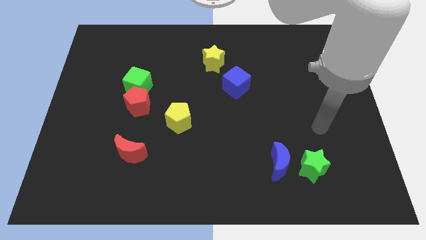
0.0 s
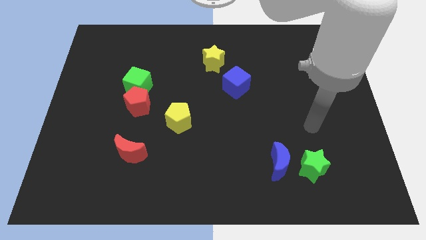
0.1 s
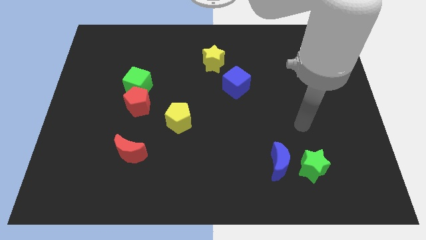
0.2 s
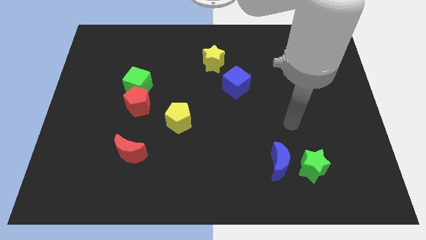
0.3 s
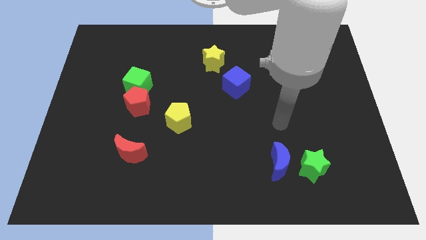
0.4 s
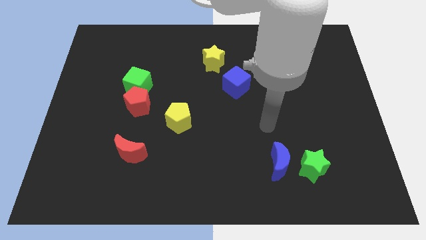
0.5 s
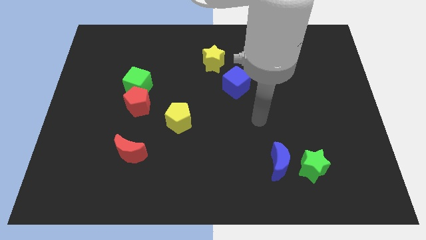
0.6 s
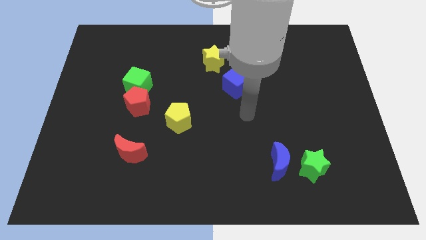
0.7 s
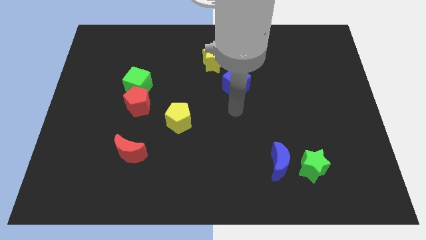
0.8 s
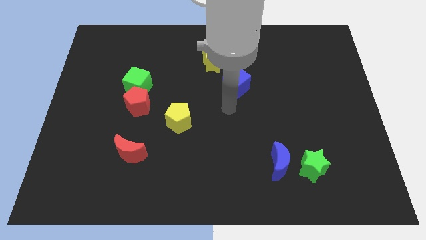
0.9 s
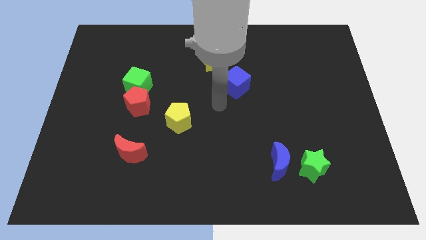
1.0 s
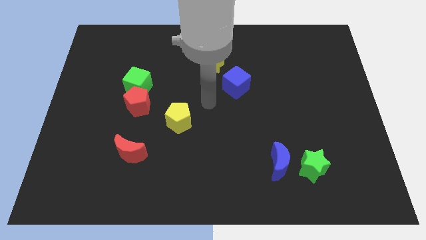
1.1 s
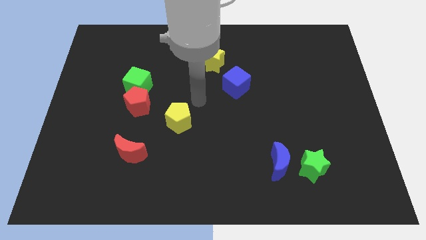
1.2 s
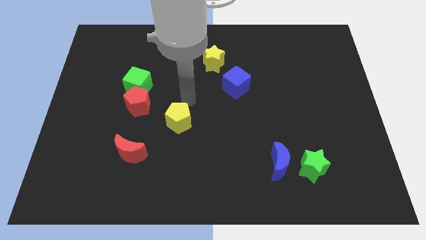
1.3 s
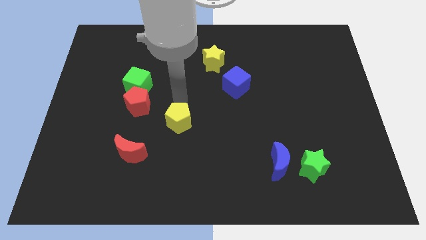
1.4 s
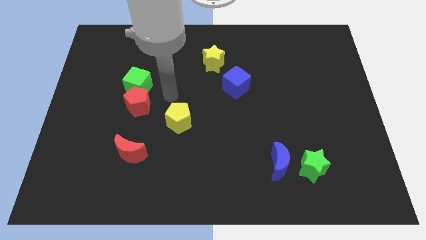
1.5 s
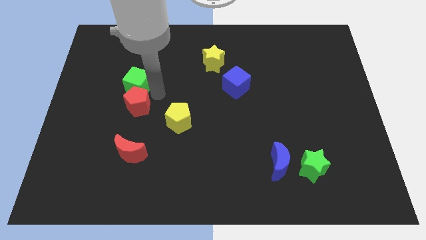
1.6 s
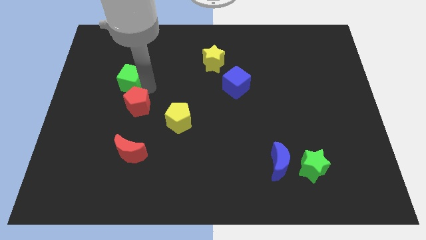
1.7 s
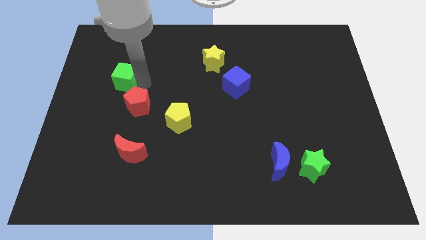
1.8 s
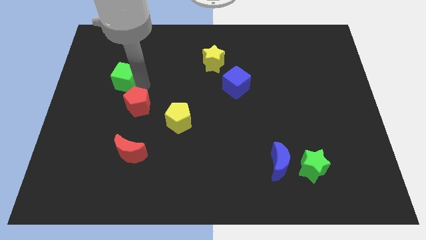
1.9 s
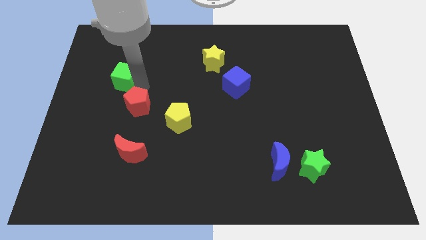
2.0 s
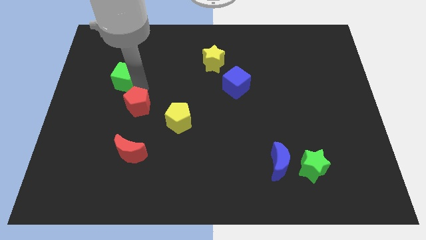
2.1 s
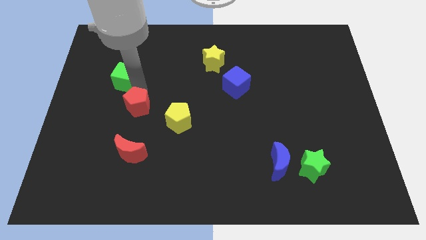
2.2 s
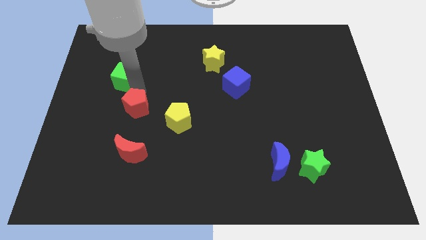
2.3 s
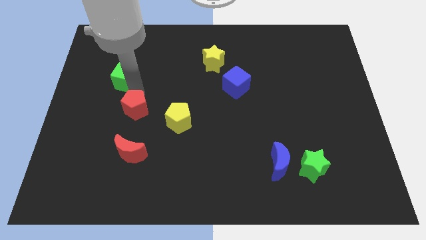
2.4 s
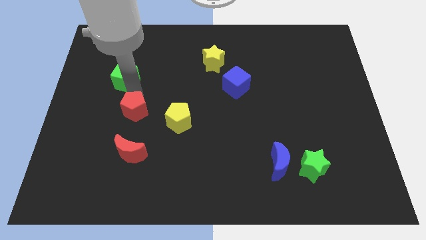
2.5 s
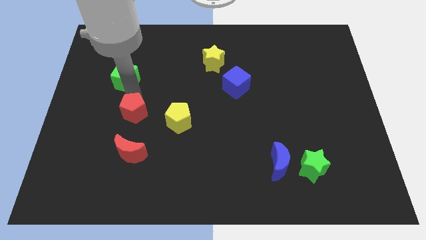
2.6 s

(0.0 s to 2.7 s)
move the red pentagon away from the green cube

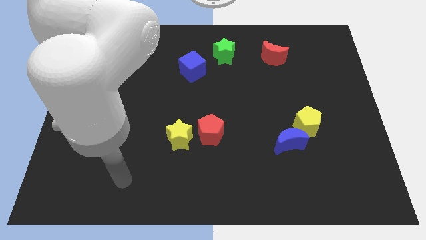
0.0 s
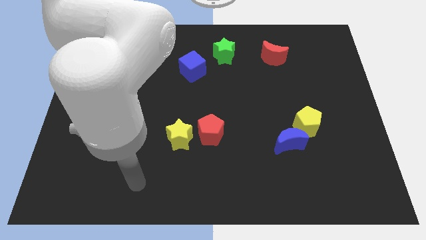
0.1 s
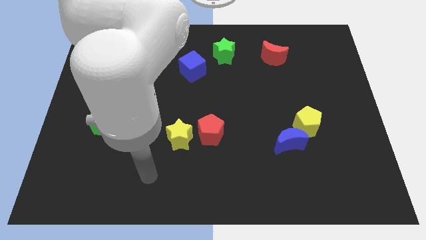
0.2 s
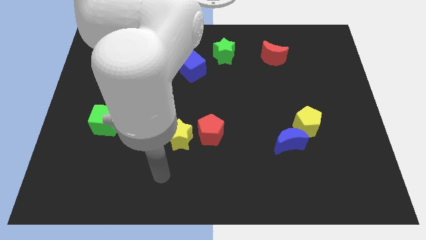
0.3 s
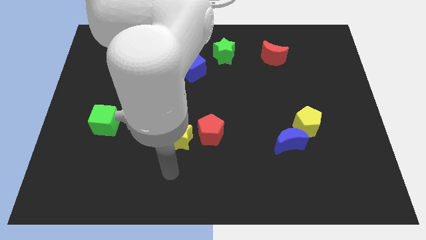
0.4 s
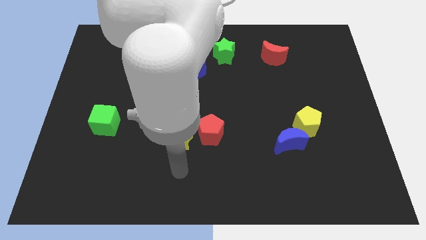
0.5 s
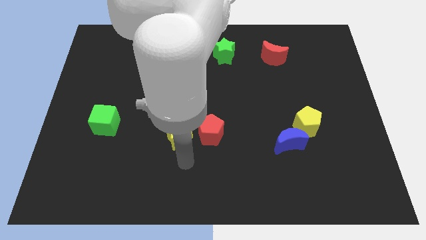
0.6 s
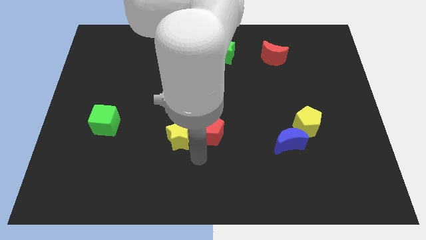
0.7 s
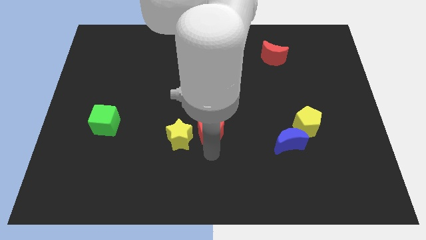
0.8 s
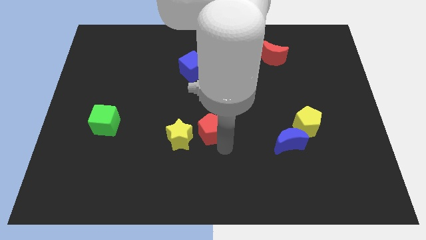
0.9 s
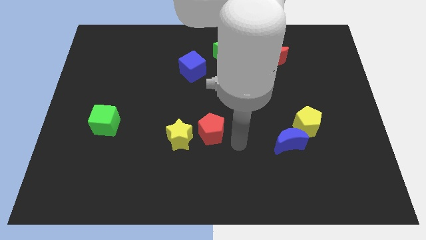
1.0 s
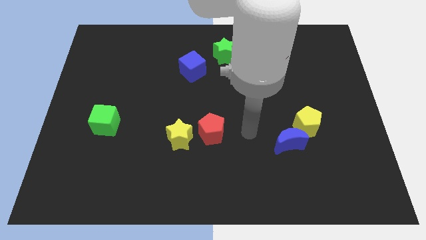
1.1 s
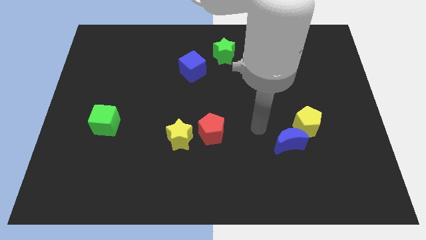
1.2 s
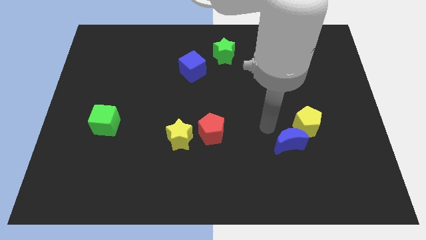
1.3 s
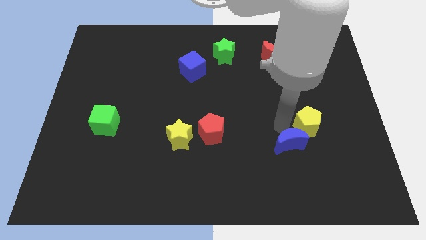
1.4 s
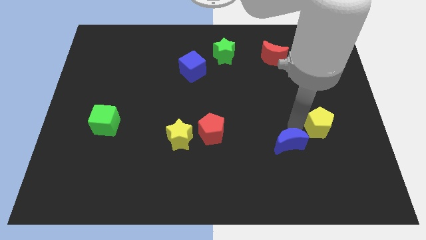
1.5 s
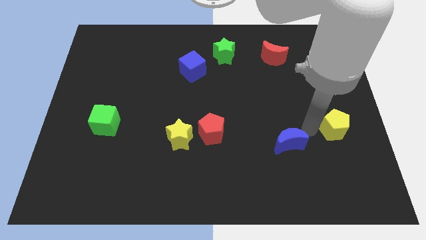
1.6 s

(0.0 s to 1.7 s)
separate the blue moon from the yellow pentagon

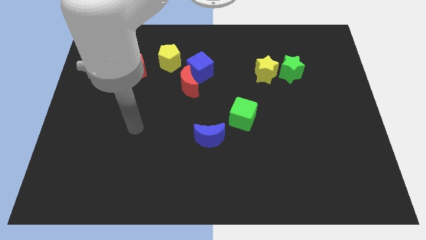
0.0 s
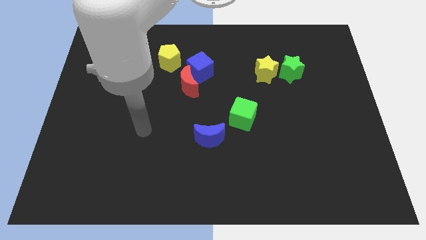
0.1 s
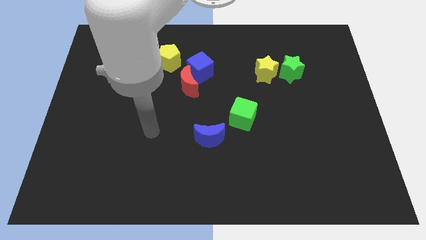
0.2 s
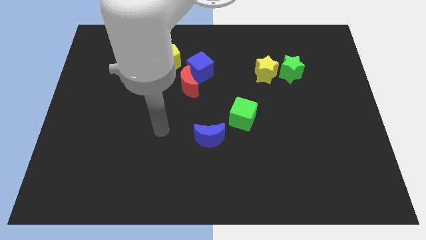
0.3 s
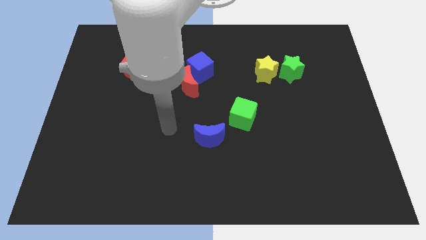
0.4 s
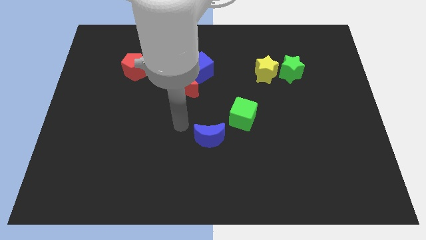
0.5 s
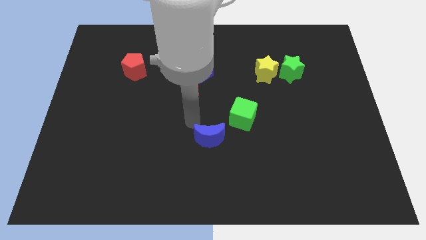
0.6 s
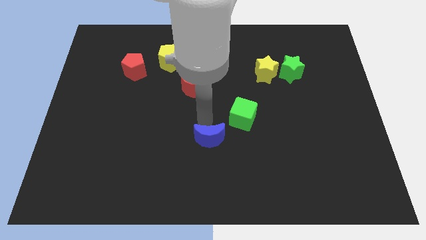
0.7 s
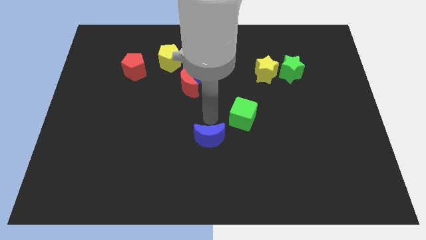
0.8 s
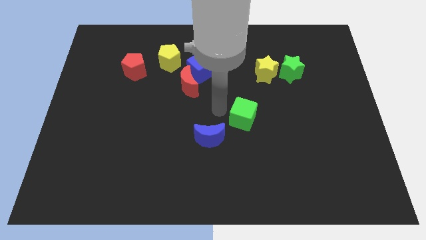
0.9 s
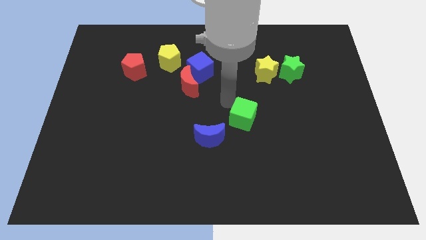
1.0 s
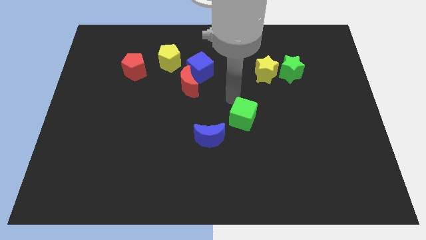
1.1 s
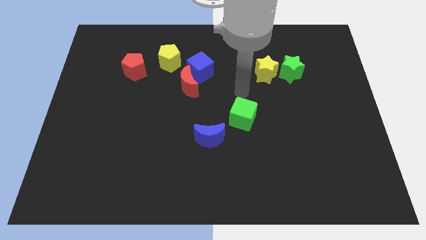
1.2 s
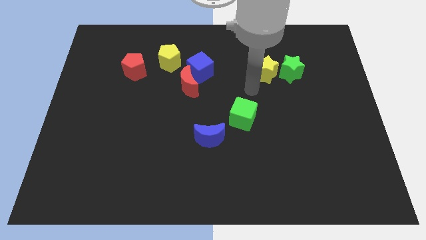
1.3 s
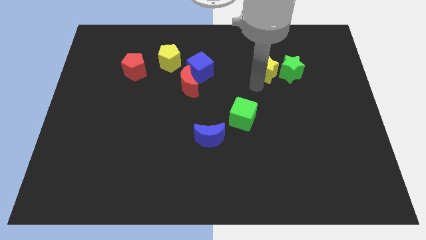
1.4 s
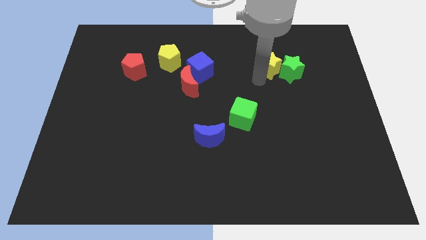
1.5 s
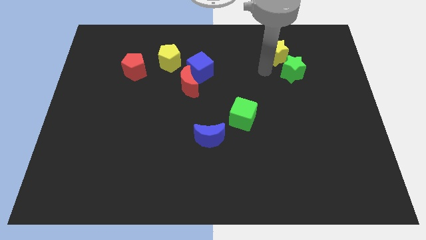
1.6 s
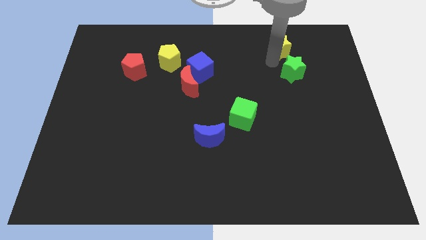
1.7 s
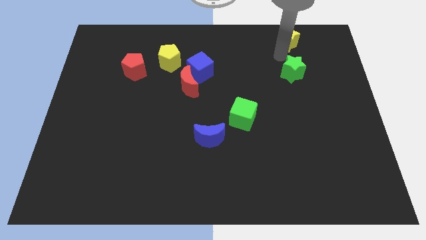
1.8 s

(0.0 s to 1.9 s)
separate the green star from the yellow star

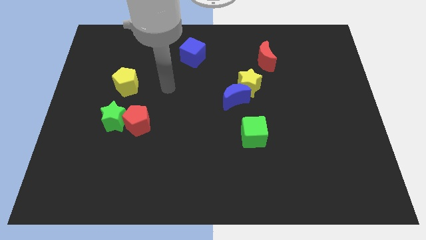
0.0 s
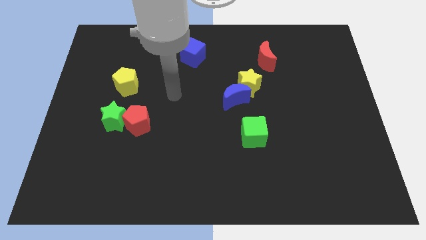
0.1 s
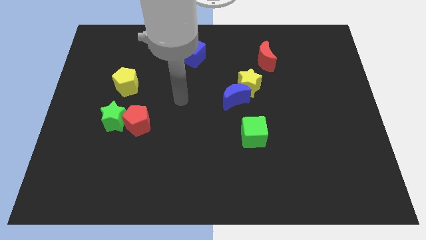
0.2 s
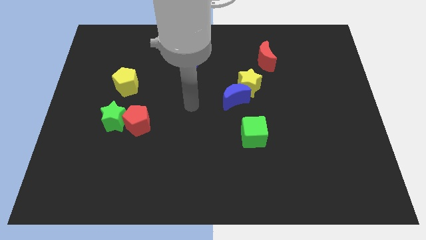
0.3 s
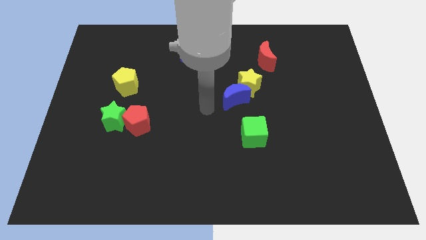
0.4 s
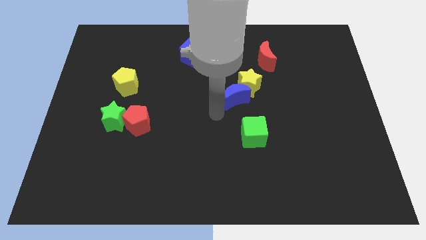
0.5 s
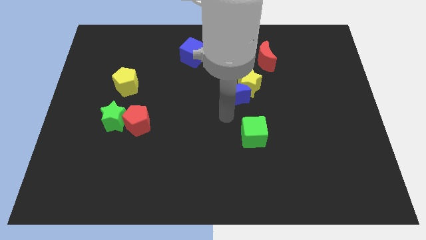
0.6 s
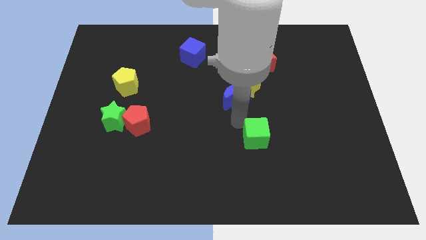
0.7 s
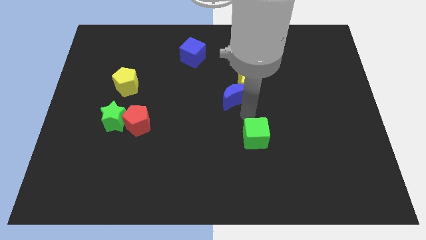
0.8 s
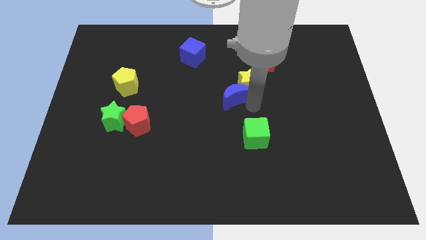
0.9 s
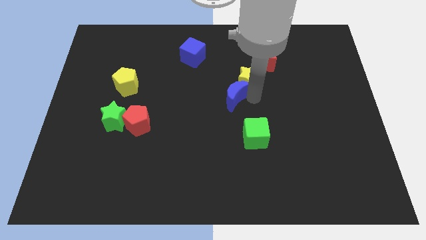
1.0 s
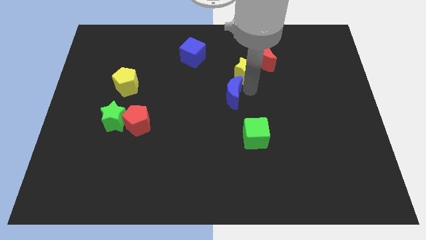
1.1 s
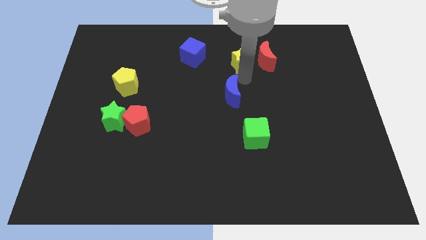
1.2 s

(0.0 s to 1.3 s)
separate the blue moon from the yellow star

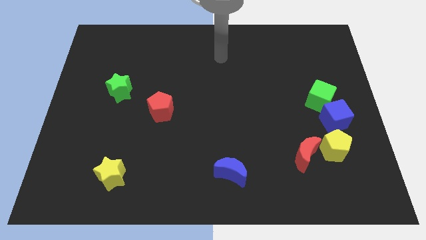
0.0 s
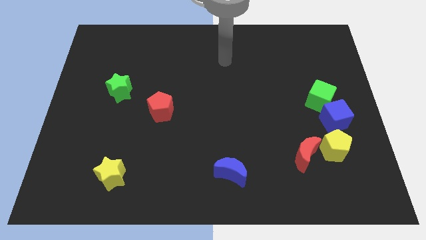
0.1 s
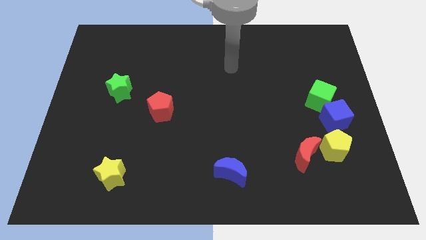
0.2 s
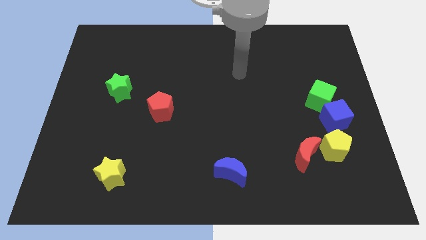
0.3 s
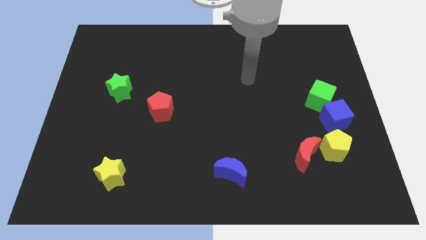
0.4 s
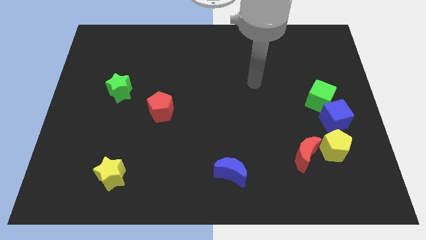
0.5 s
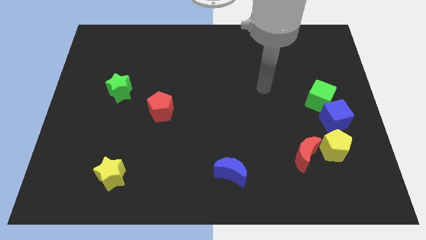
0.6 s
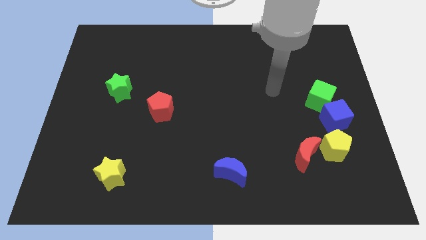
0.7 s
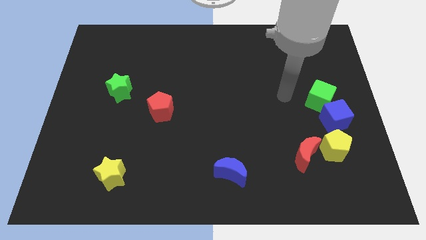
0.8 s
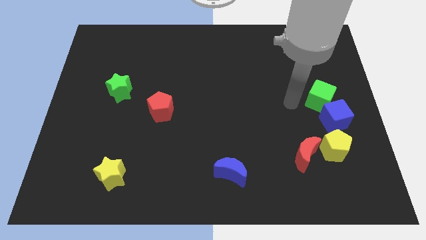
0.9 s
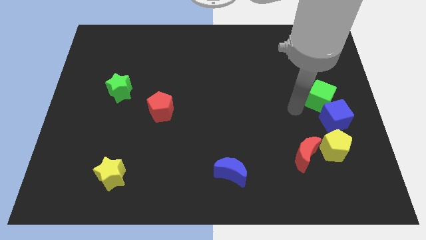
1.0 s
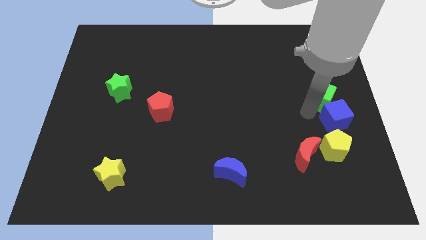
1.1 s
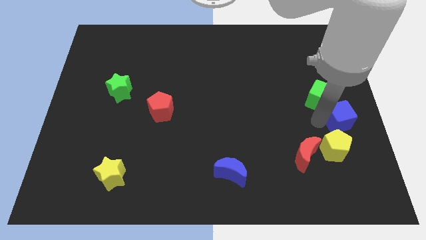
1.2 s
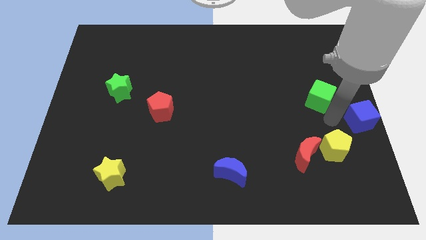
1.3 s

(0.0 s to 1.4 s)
separate the green cube from the blue cube

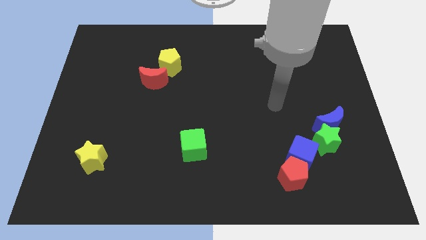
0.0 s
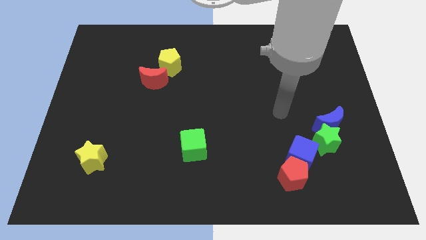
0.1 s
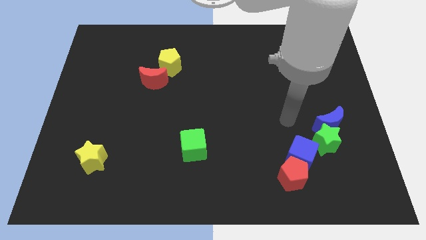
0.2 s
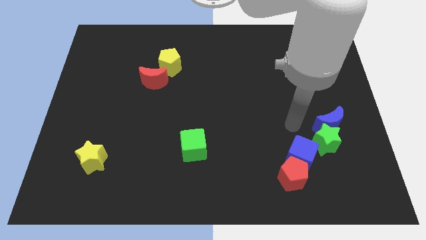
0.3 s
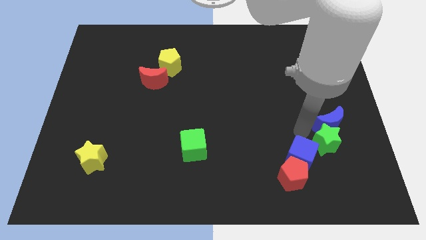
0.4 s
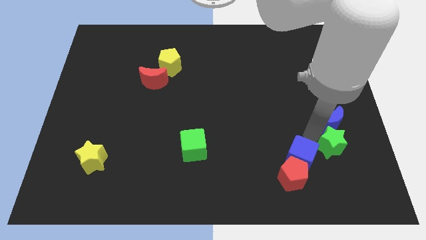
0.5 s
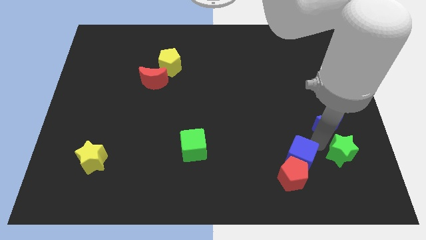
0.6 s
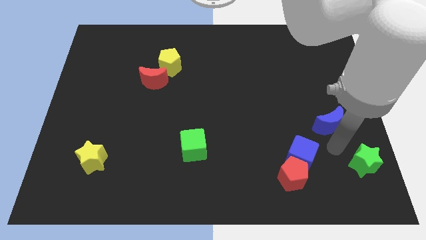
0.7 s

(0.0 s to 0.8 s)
move the blue moon away from the green star
